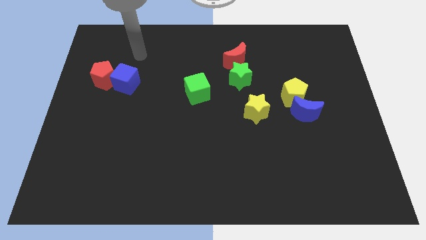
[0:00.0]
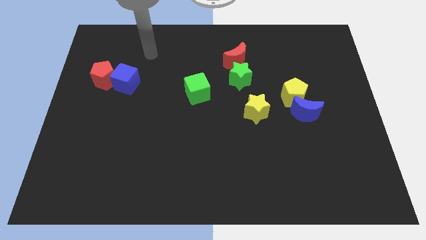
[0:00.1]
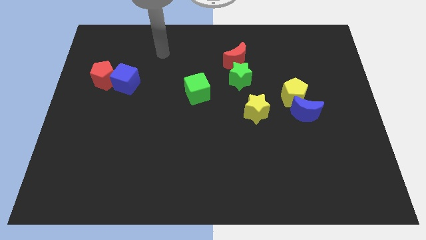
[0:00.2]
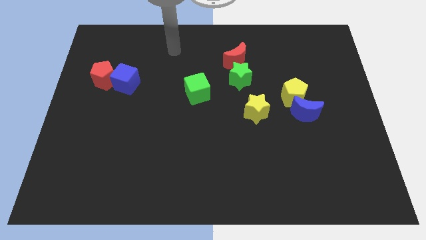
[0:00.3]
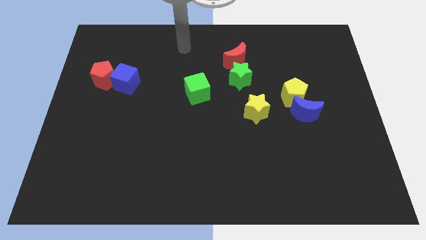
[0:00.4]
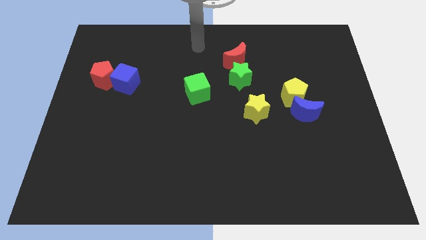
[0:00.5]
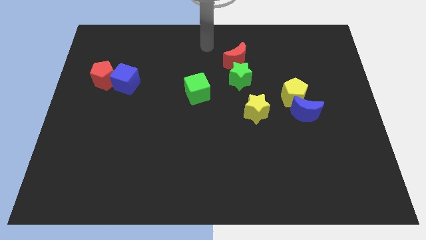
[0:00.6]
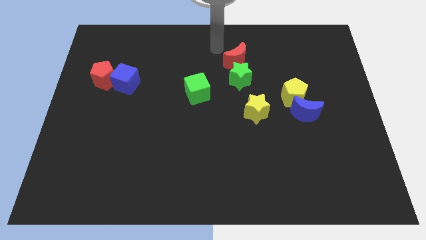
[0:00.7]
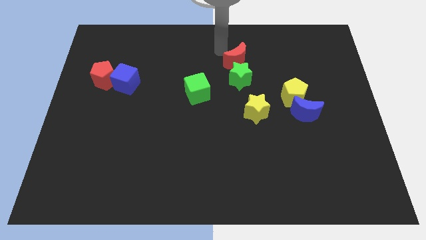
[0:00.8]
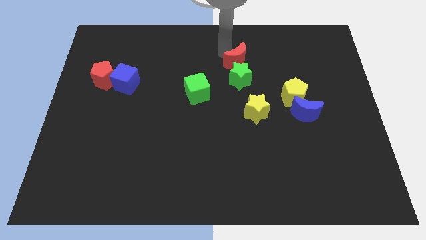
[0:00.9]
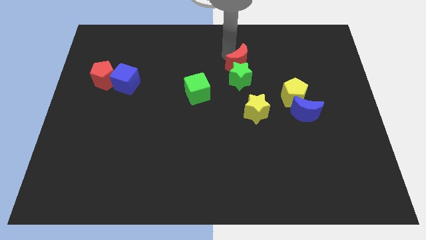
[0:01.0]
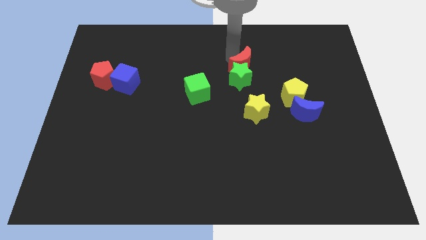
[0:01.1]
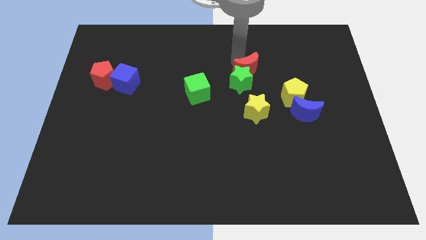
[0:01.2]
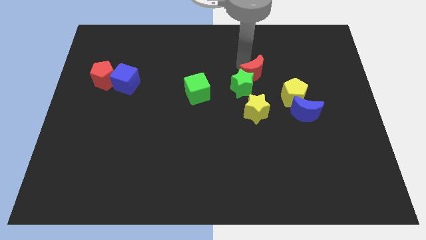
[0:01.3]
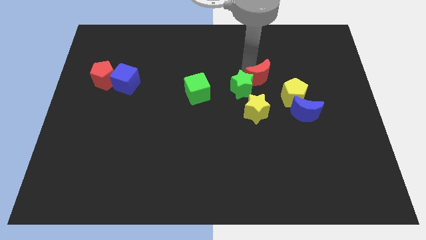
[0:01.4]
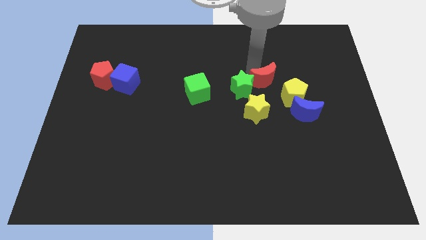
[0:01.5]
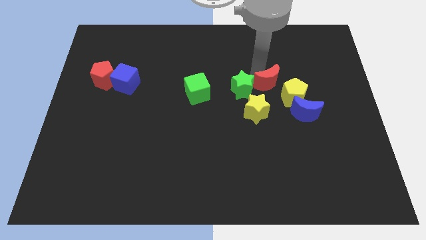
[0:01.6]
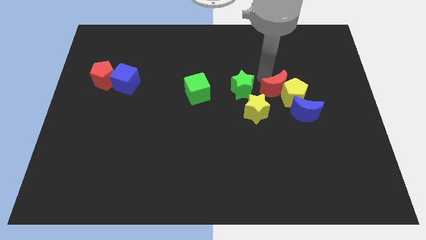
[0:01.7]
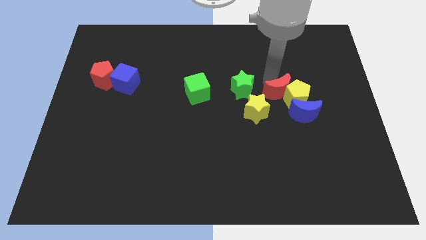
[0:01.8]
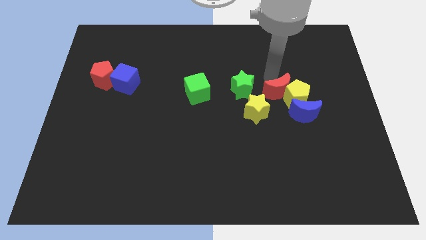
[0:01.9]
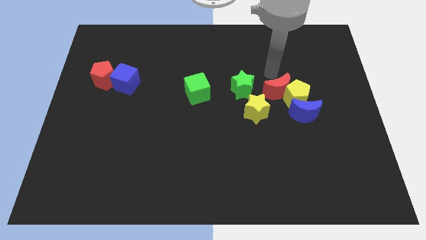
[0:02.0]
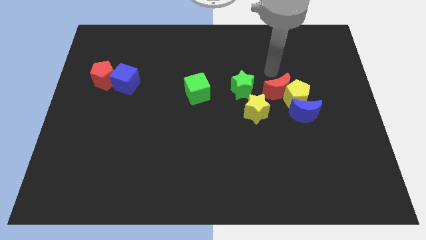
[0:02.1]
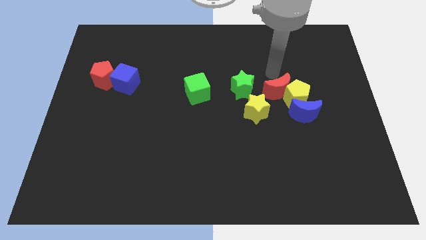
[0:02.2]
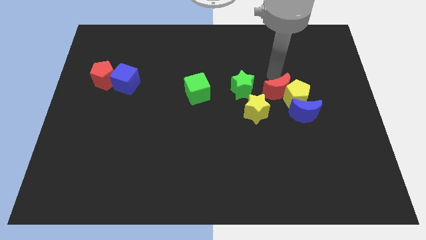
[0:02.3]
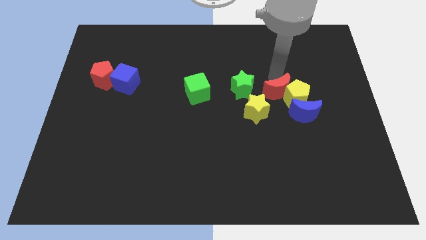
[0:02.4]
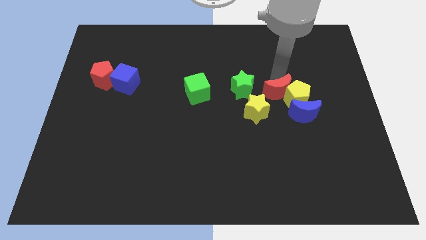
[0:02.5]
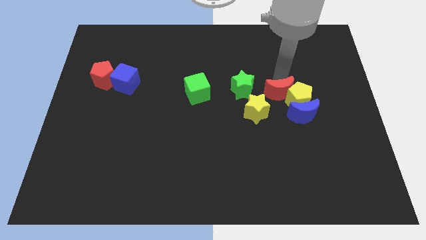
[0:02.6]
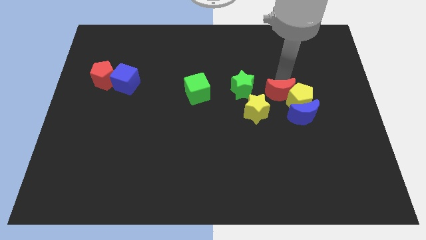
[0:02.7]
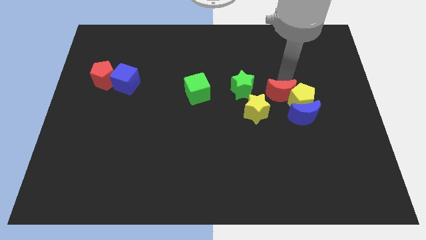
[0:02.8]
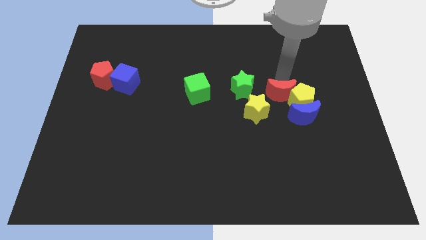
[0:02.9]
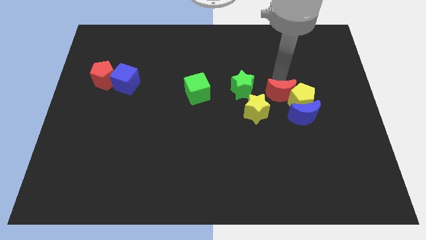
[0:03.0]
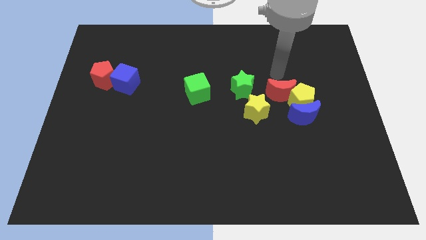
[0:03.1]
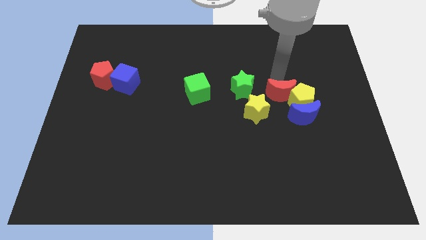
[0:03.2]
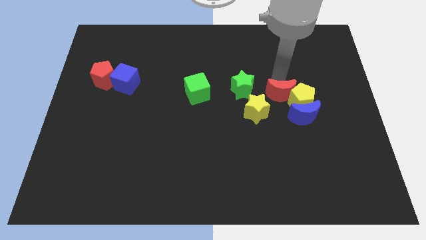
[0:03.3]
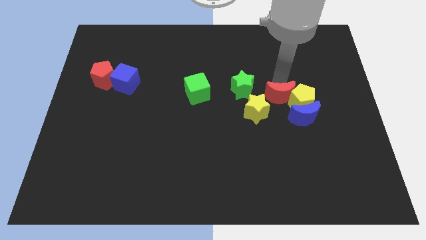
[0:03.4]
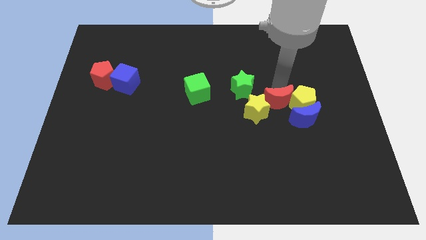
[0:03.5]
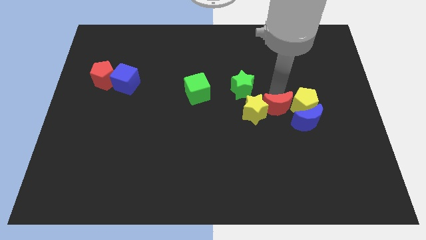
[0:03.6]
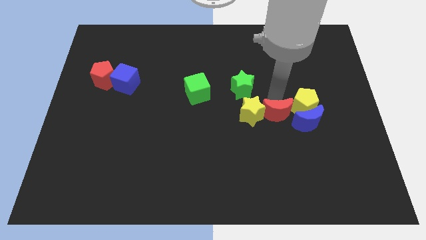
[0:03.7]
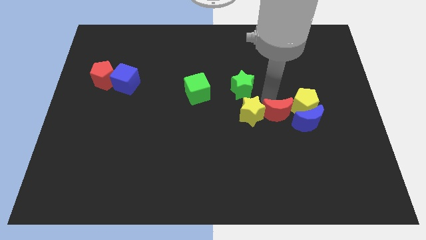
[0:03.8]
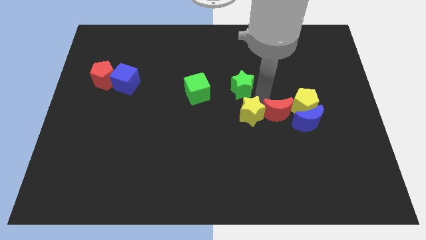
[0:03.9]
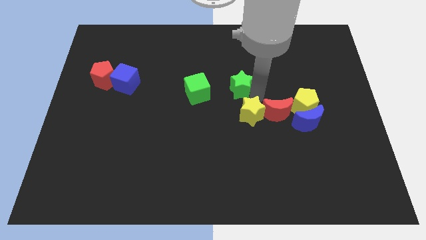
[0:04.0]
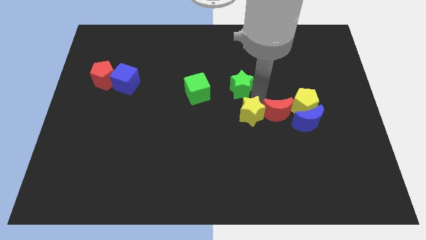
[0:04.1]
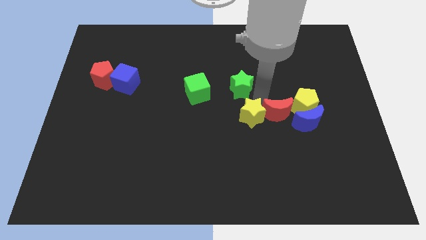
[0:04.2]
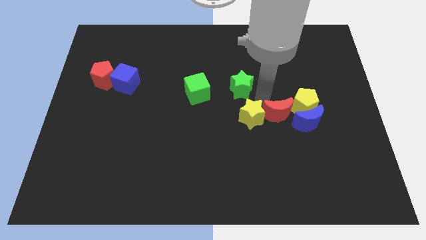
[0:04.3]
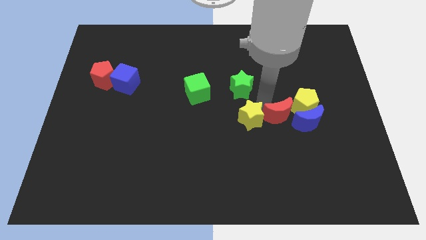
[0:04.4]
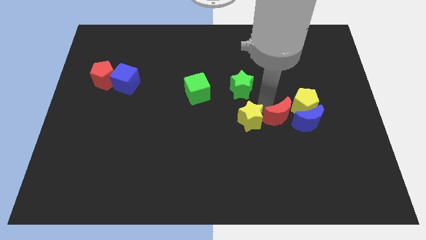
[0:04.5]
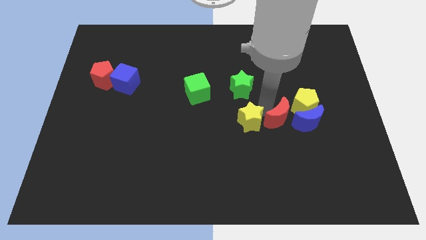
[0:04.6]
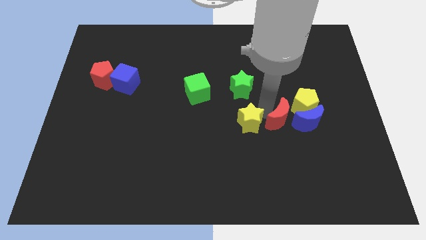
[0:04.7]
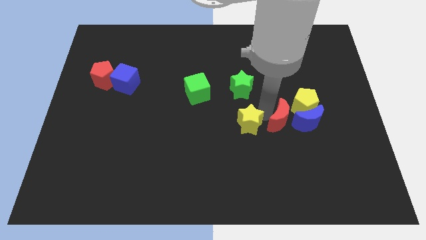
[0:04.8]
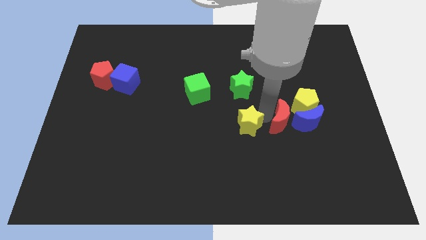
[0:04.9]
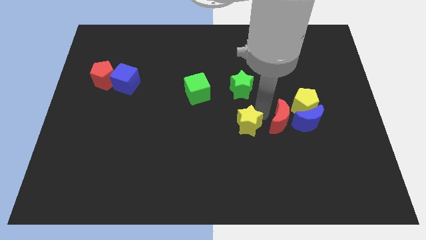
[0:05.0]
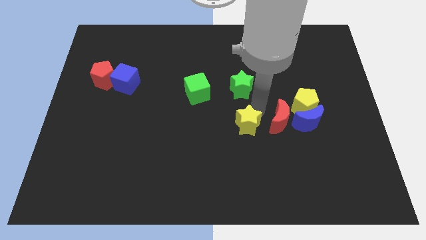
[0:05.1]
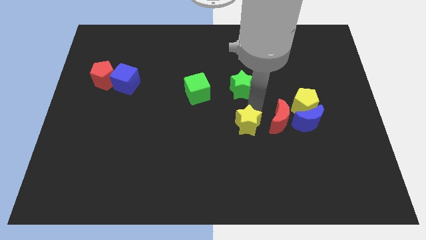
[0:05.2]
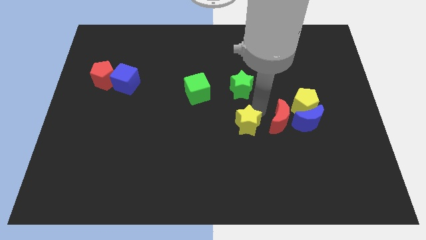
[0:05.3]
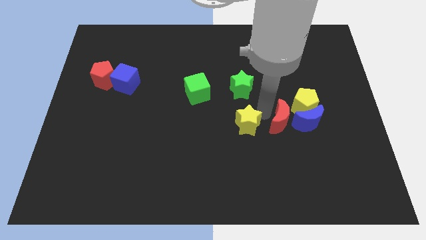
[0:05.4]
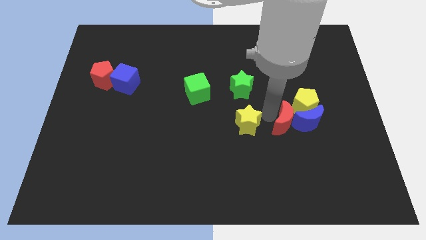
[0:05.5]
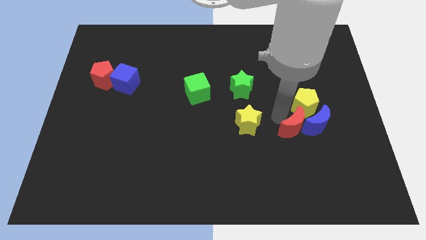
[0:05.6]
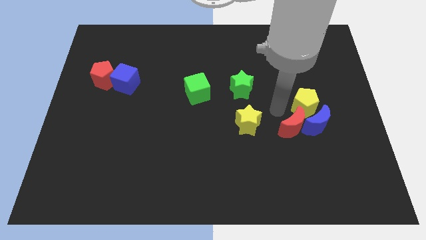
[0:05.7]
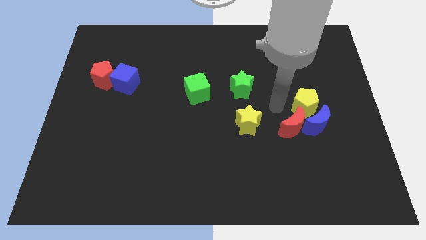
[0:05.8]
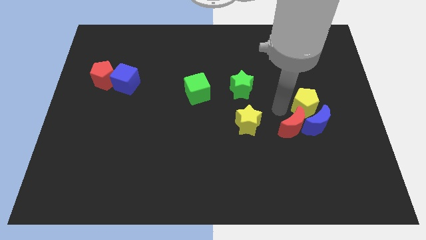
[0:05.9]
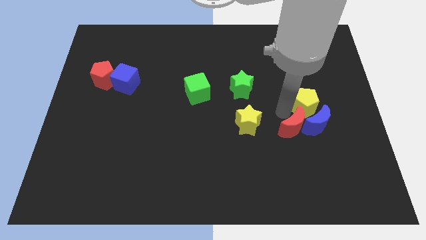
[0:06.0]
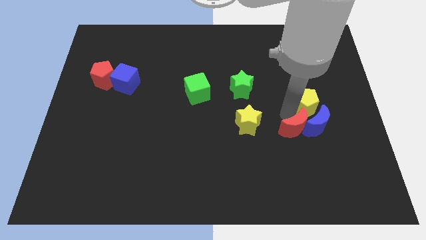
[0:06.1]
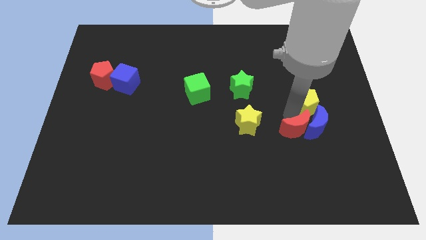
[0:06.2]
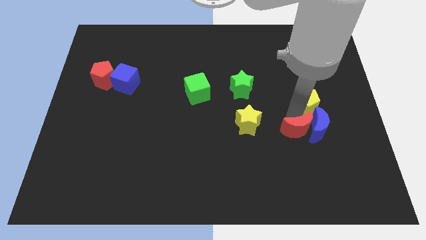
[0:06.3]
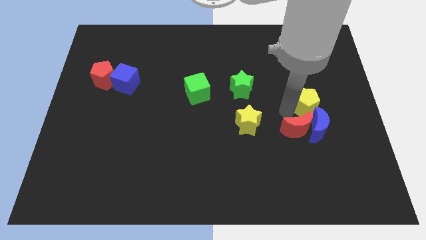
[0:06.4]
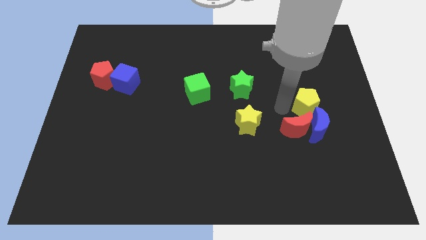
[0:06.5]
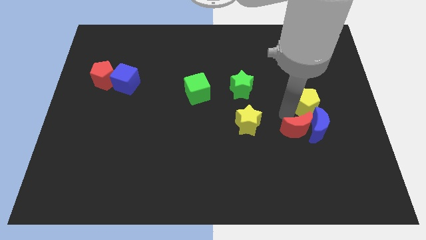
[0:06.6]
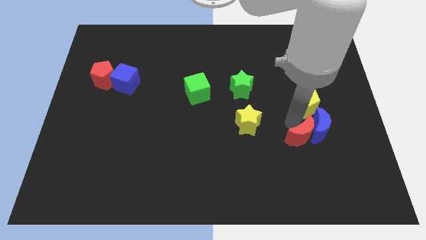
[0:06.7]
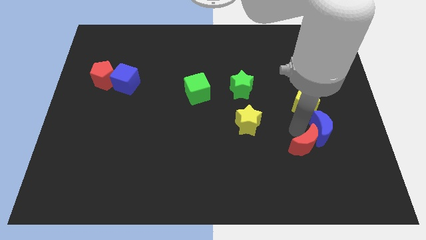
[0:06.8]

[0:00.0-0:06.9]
slide the red moon to the bottom side of the blue moon

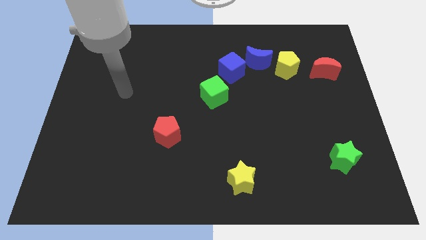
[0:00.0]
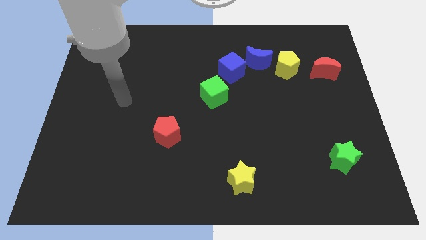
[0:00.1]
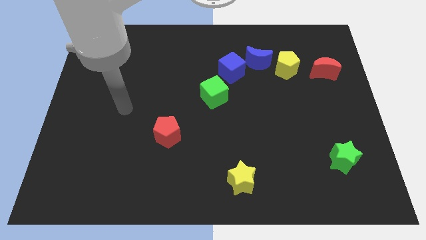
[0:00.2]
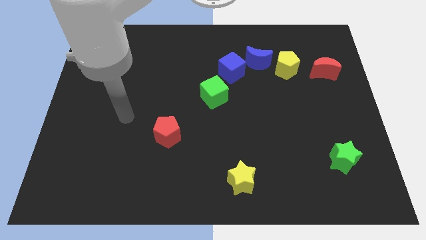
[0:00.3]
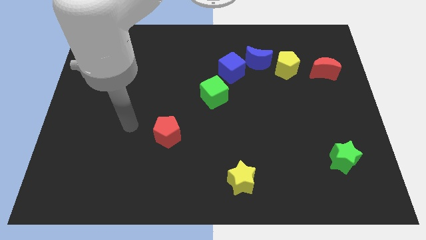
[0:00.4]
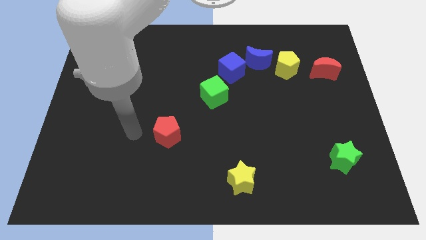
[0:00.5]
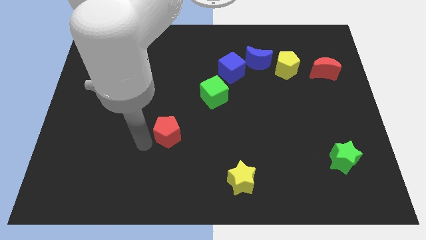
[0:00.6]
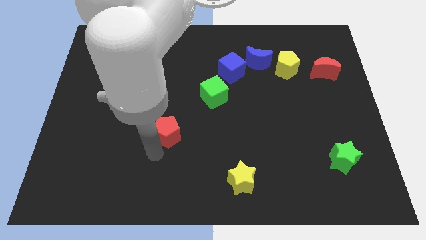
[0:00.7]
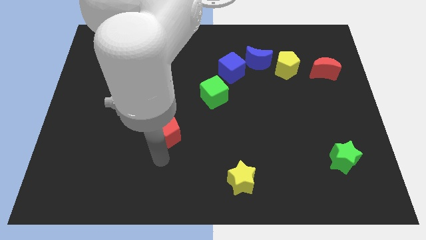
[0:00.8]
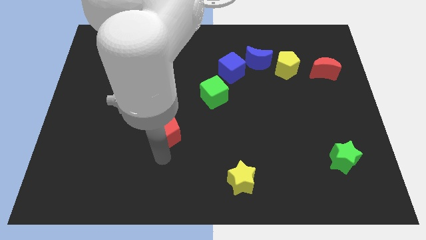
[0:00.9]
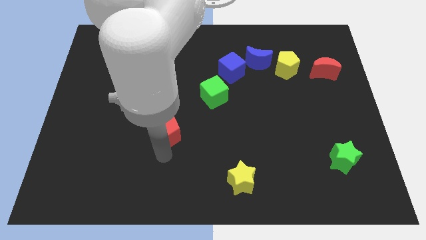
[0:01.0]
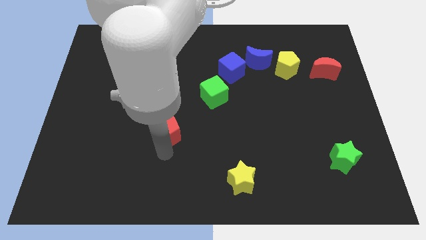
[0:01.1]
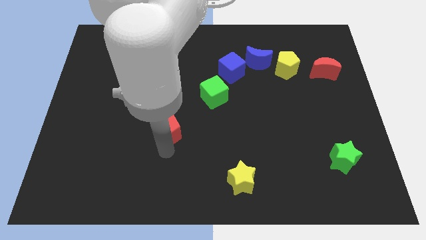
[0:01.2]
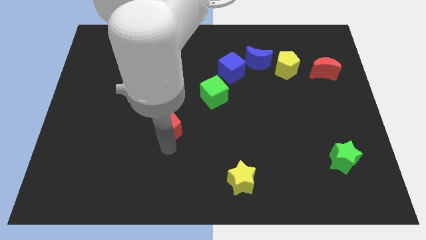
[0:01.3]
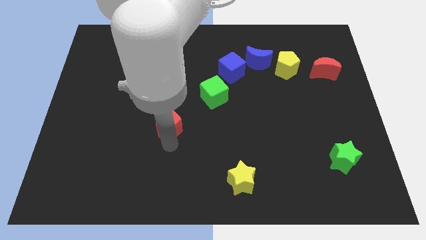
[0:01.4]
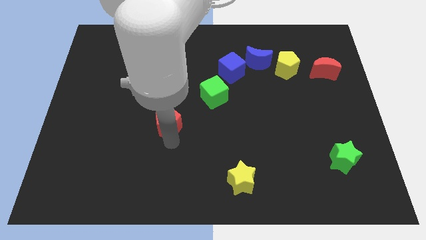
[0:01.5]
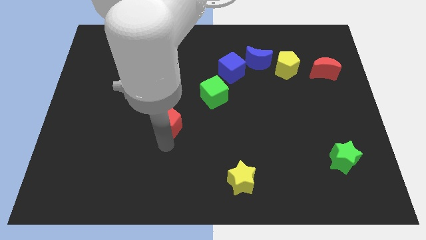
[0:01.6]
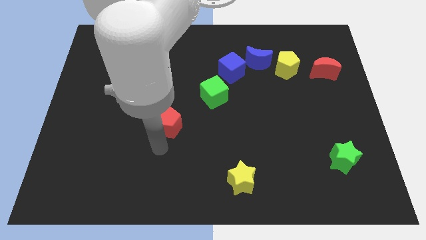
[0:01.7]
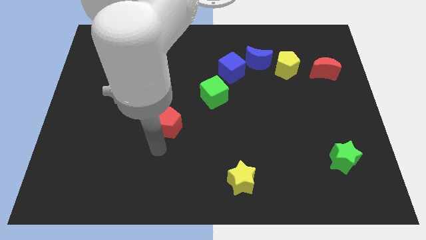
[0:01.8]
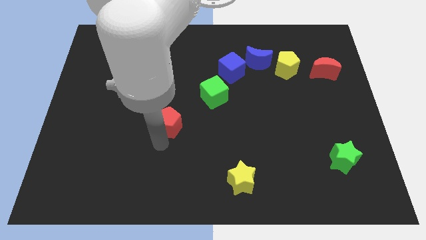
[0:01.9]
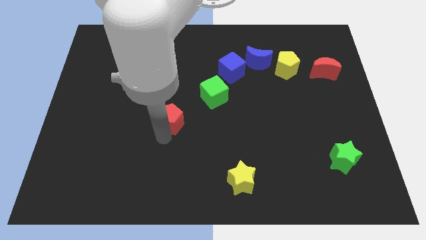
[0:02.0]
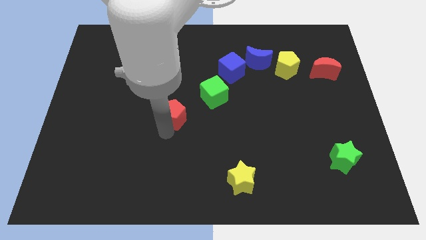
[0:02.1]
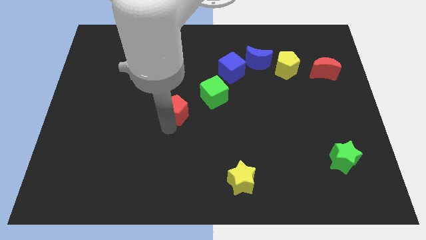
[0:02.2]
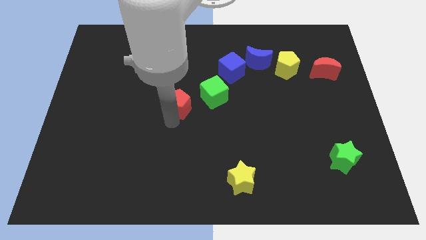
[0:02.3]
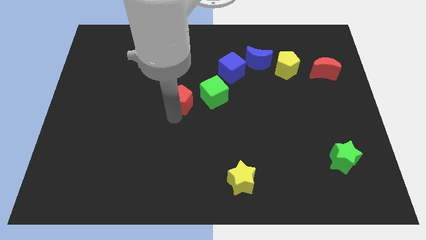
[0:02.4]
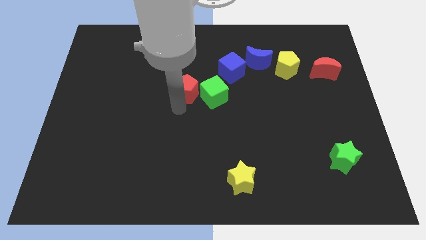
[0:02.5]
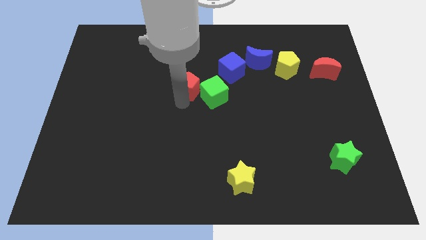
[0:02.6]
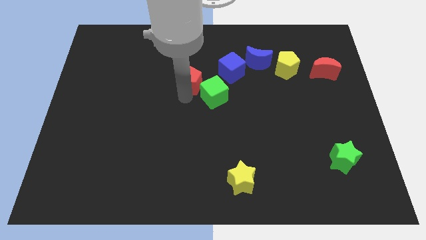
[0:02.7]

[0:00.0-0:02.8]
slide the red pentagon to the left side of the blue cube
